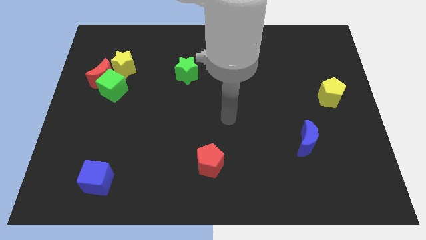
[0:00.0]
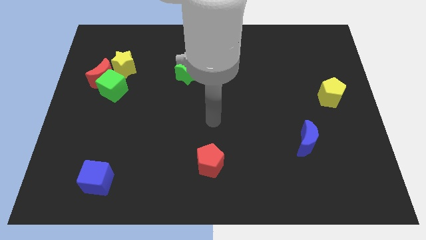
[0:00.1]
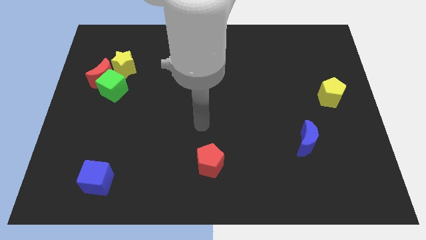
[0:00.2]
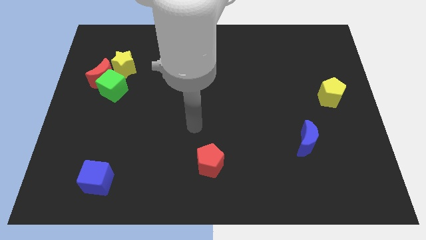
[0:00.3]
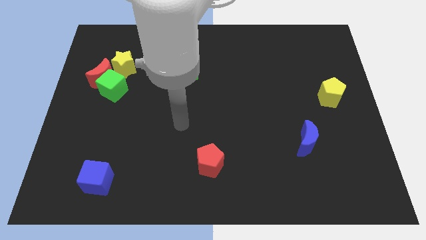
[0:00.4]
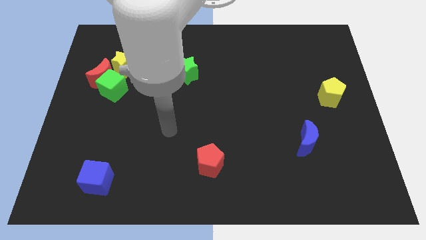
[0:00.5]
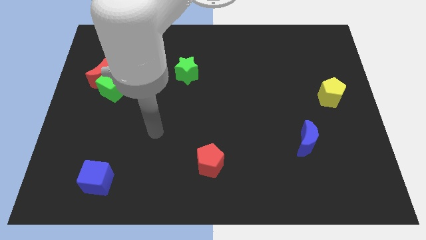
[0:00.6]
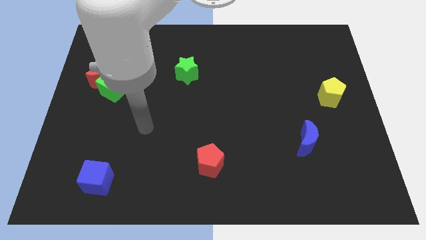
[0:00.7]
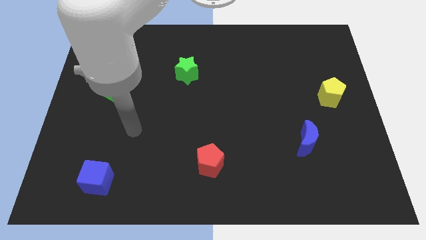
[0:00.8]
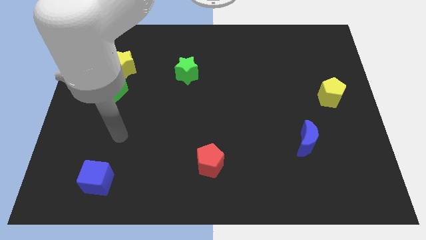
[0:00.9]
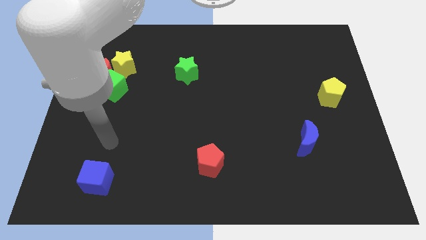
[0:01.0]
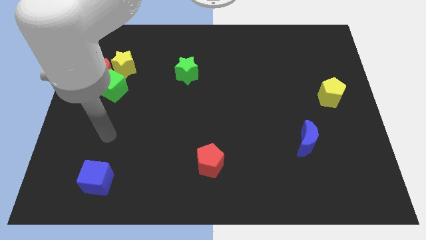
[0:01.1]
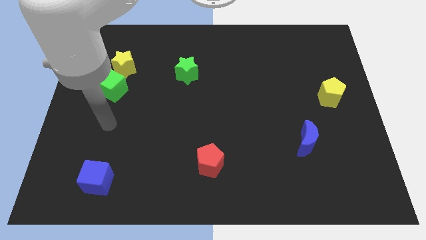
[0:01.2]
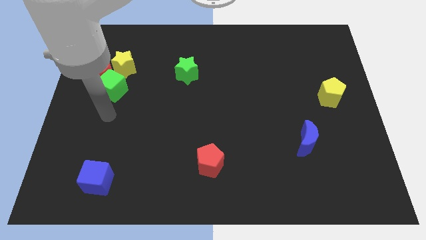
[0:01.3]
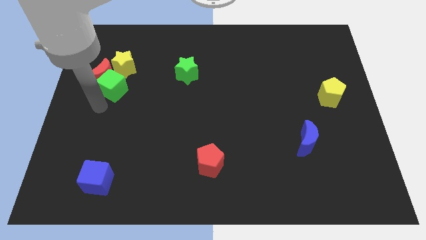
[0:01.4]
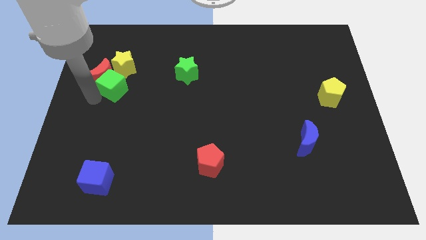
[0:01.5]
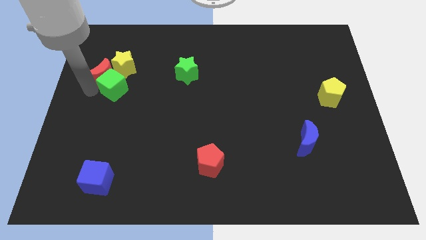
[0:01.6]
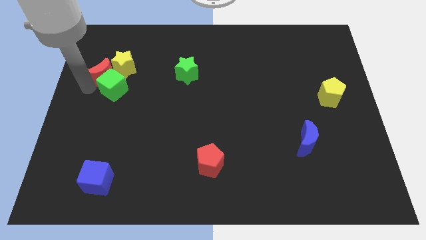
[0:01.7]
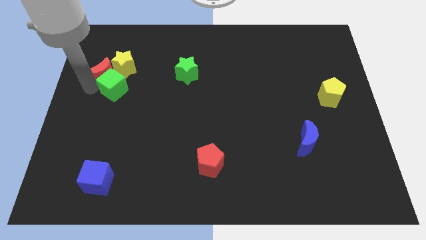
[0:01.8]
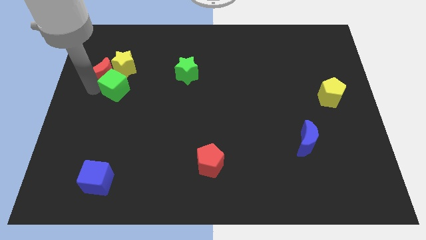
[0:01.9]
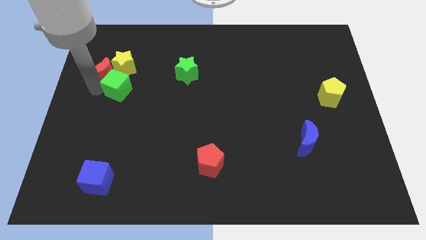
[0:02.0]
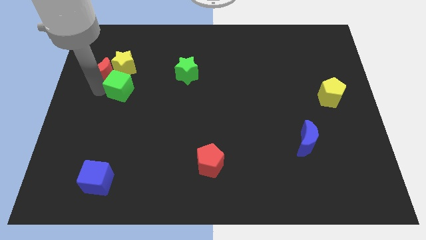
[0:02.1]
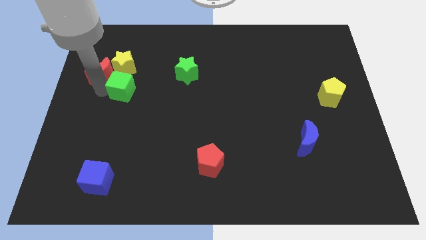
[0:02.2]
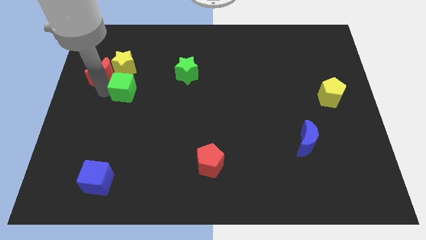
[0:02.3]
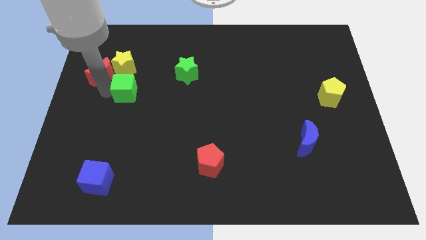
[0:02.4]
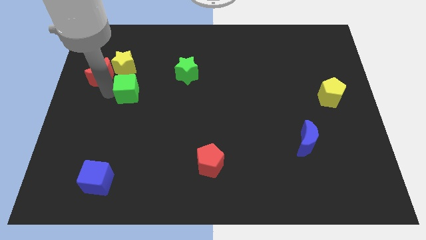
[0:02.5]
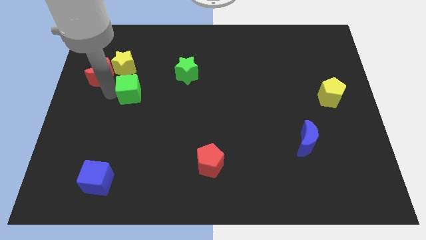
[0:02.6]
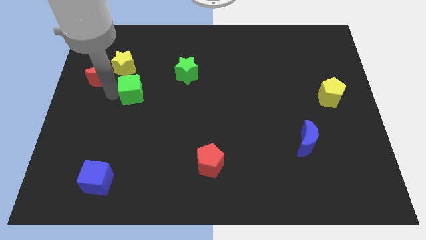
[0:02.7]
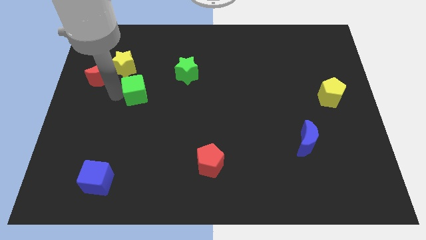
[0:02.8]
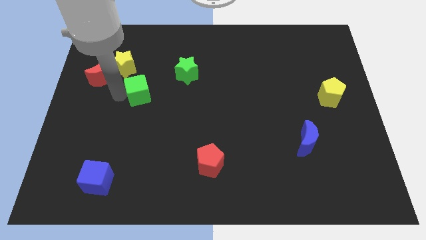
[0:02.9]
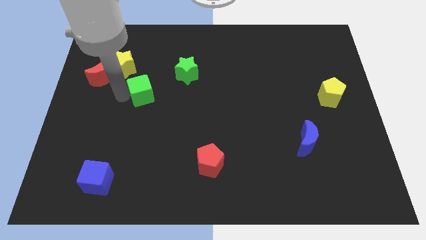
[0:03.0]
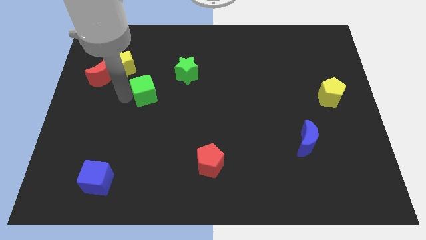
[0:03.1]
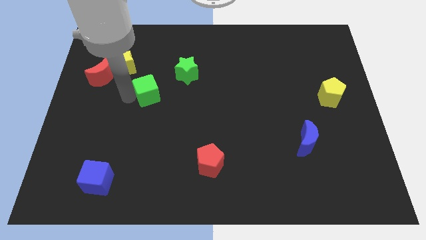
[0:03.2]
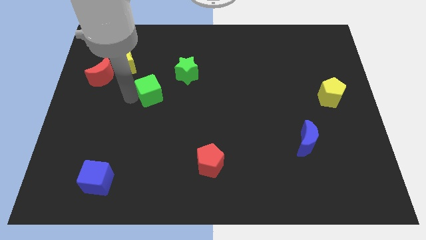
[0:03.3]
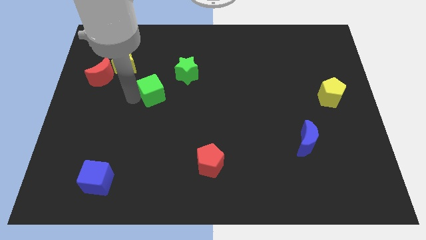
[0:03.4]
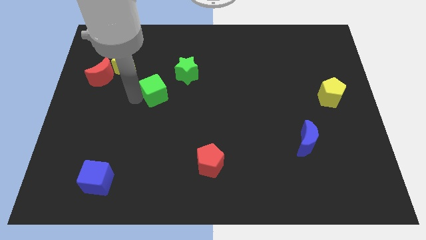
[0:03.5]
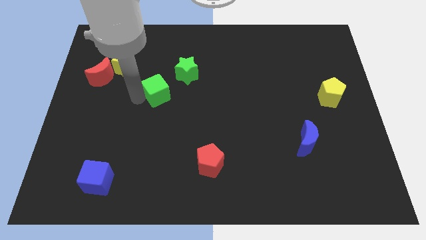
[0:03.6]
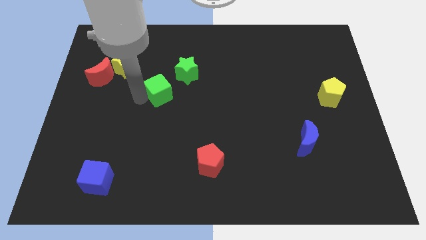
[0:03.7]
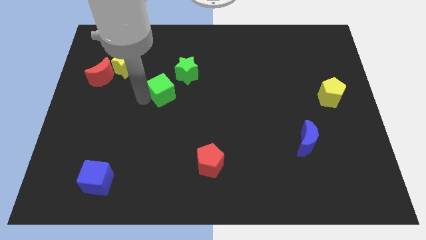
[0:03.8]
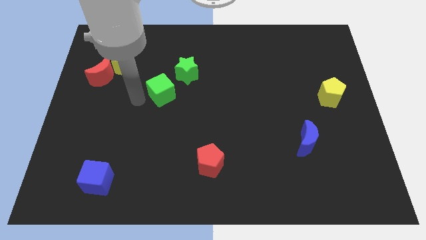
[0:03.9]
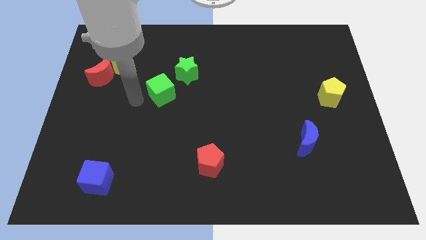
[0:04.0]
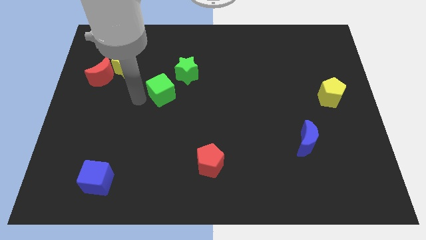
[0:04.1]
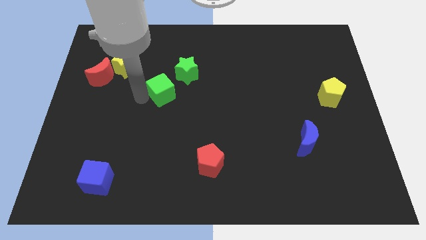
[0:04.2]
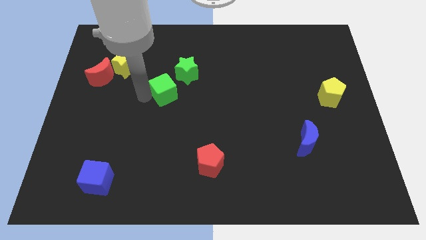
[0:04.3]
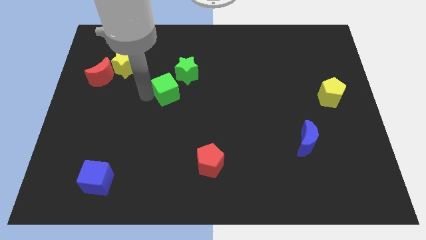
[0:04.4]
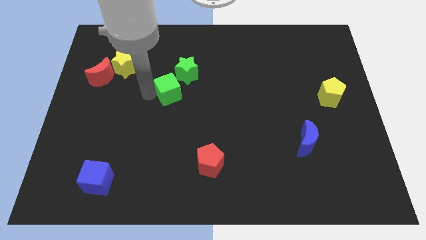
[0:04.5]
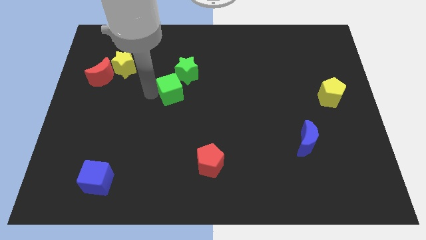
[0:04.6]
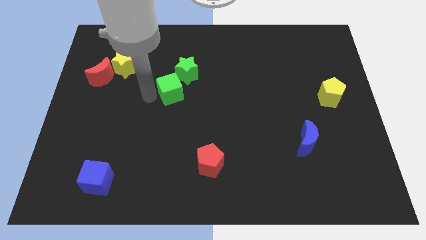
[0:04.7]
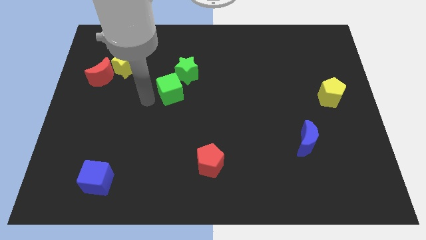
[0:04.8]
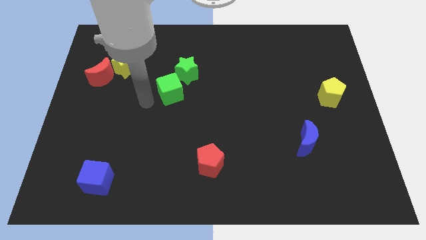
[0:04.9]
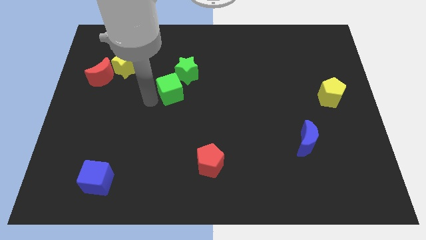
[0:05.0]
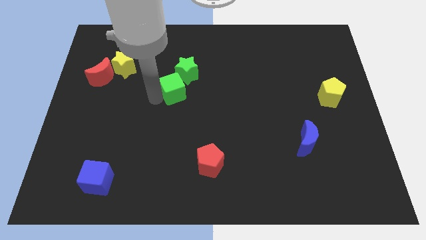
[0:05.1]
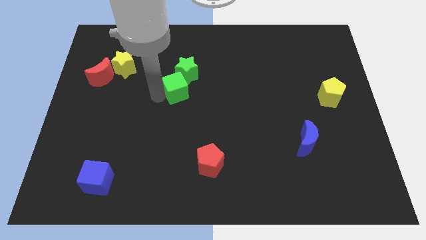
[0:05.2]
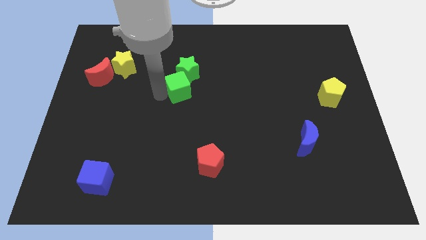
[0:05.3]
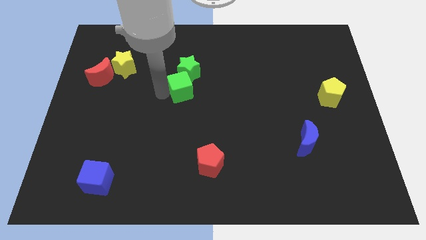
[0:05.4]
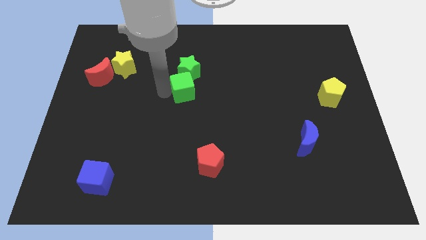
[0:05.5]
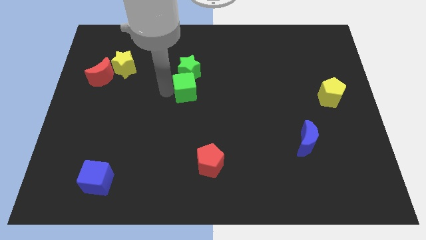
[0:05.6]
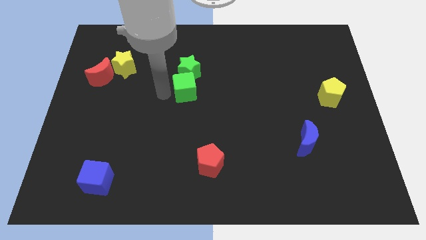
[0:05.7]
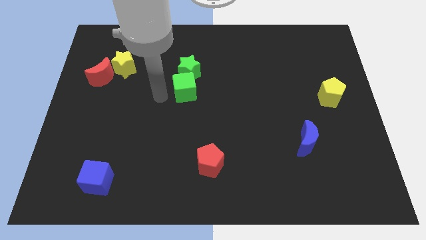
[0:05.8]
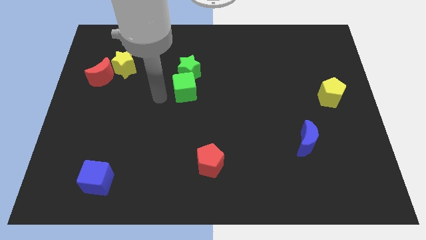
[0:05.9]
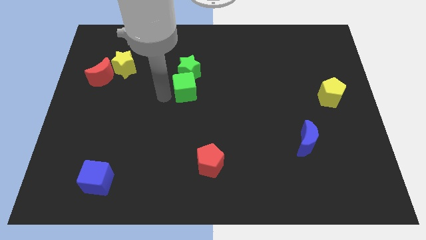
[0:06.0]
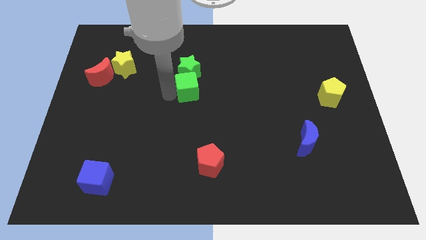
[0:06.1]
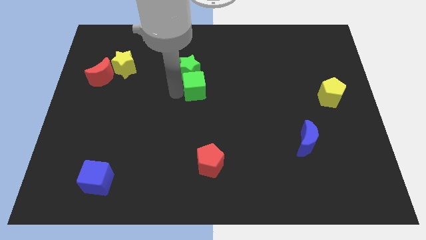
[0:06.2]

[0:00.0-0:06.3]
push the green cube right

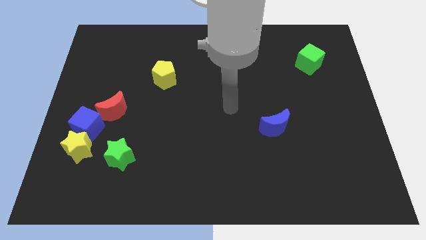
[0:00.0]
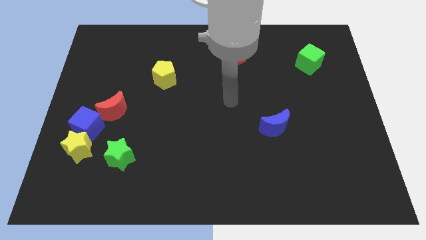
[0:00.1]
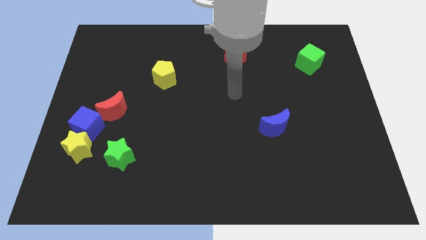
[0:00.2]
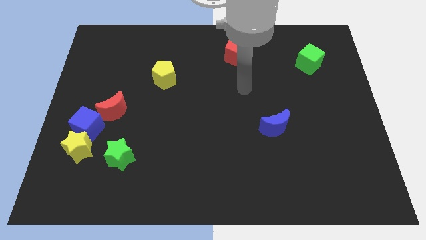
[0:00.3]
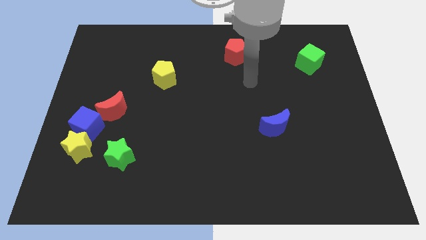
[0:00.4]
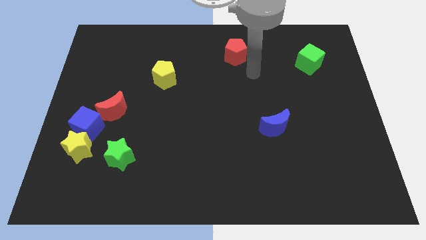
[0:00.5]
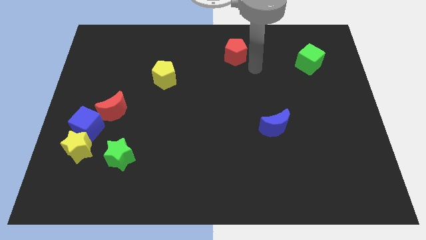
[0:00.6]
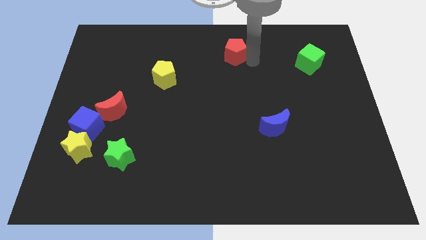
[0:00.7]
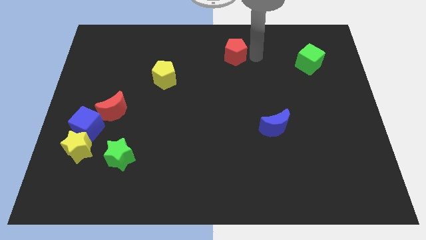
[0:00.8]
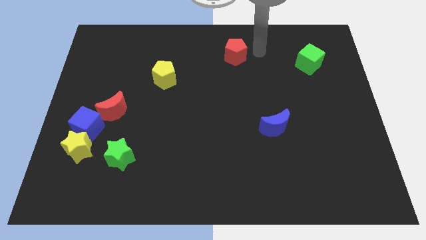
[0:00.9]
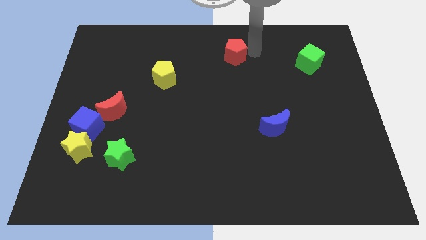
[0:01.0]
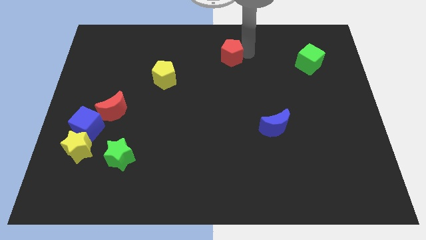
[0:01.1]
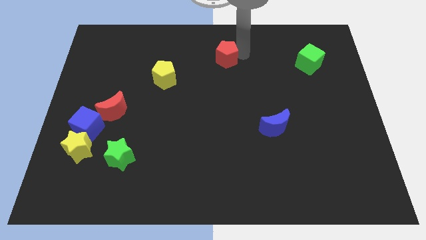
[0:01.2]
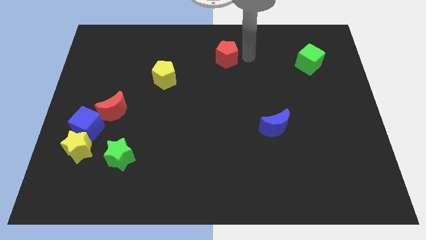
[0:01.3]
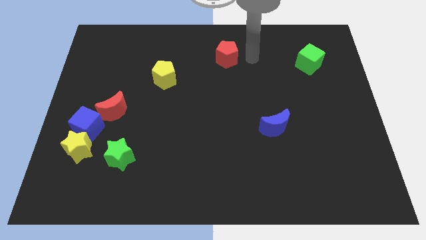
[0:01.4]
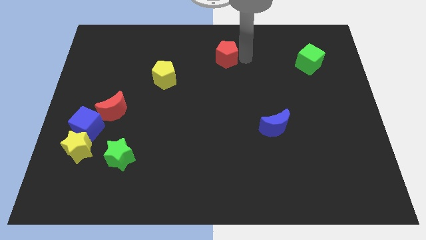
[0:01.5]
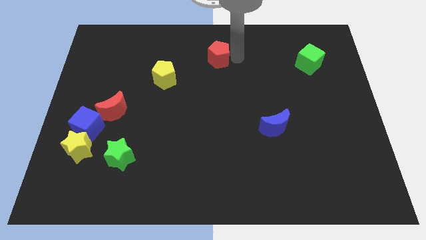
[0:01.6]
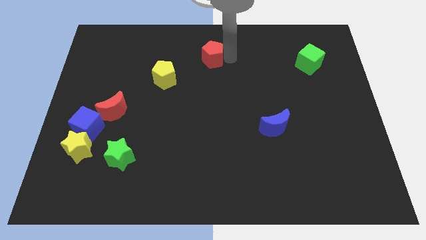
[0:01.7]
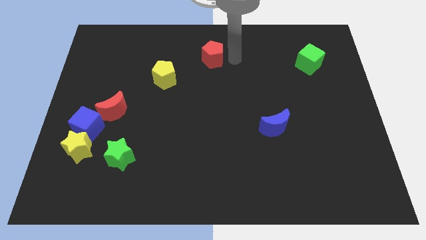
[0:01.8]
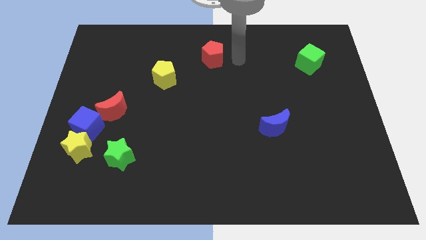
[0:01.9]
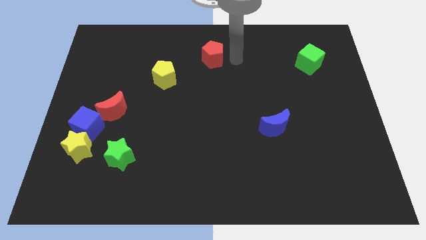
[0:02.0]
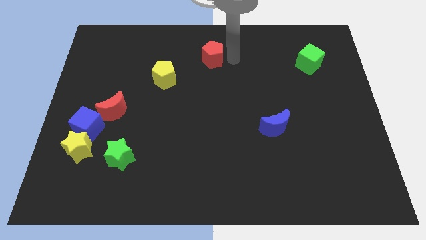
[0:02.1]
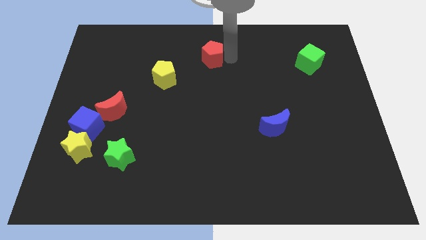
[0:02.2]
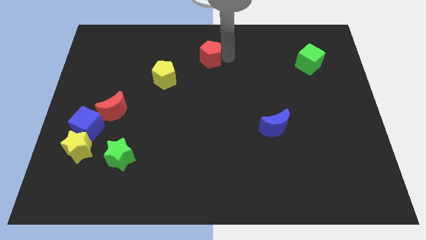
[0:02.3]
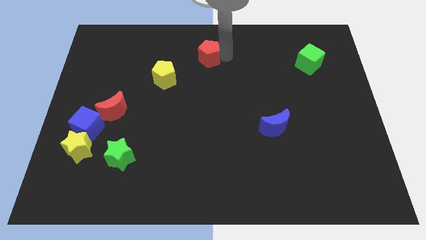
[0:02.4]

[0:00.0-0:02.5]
move the red pentagon to the left a little
